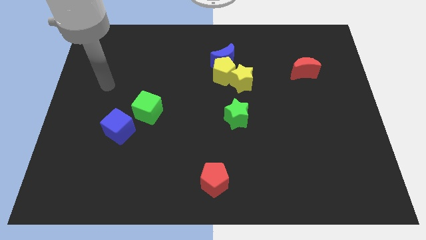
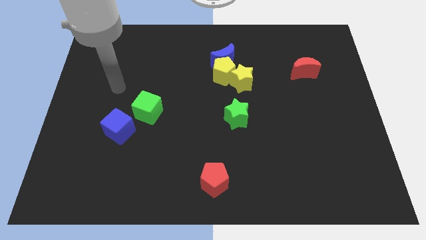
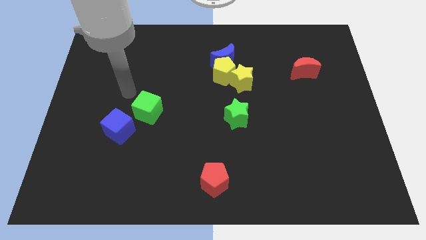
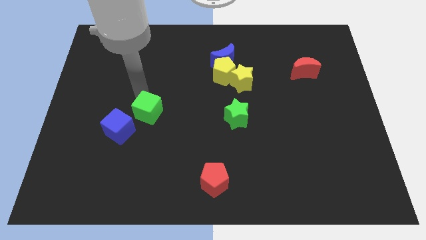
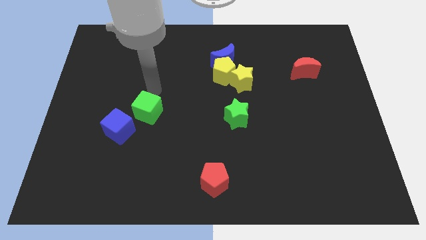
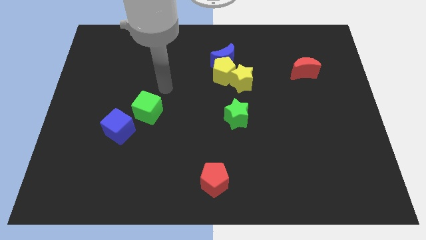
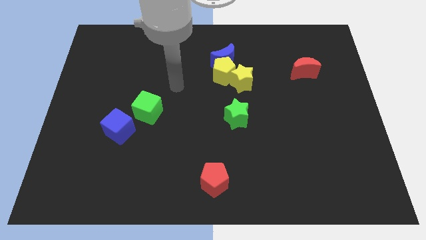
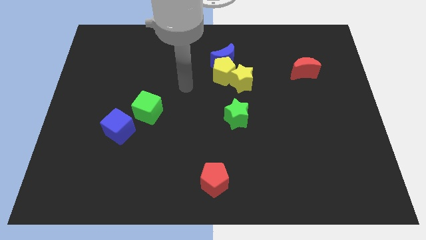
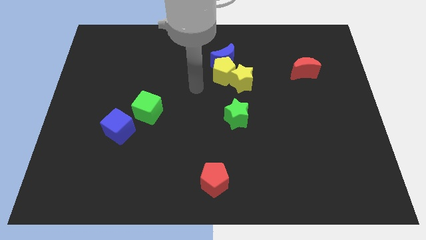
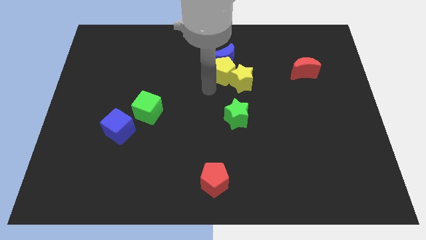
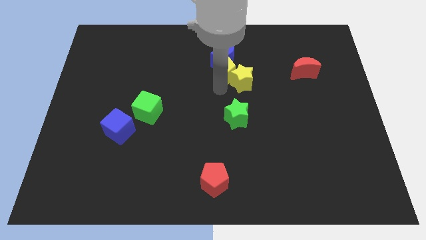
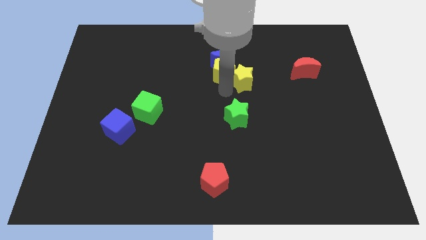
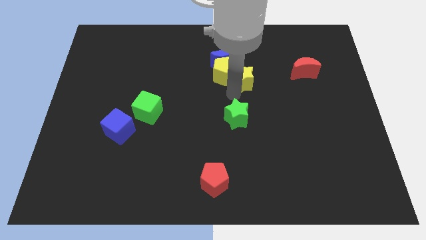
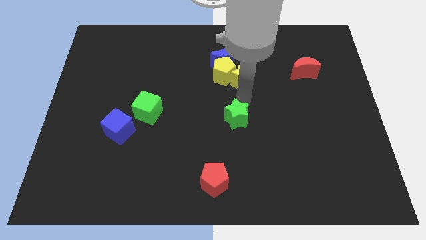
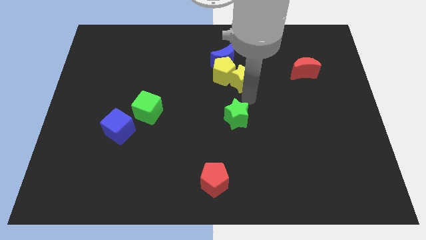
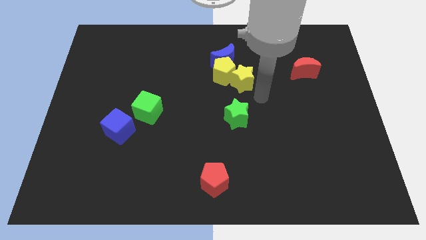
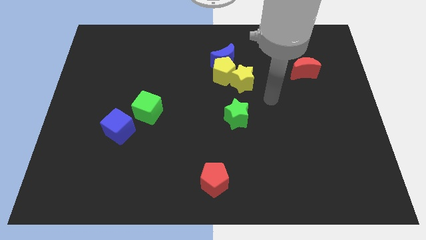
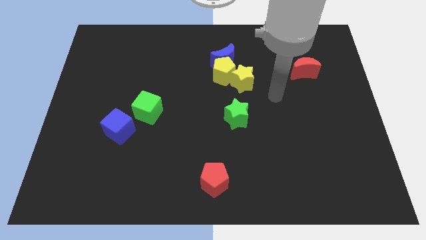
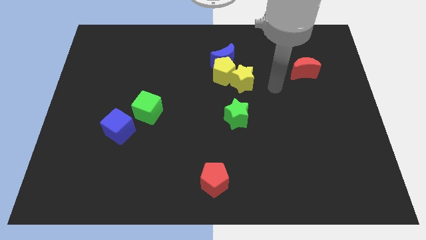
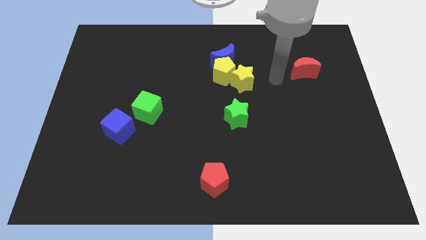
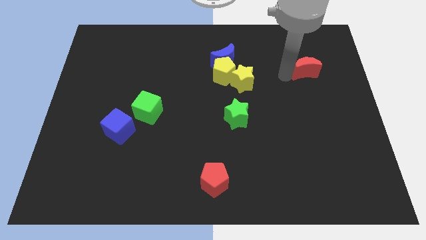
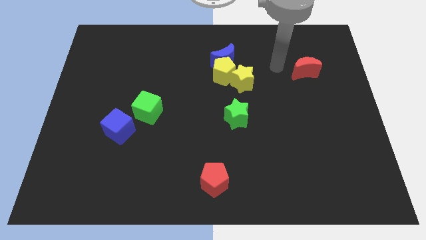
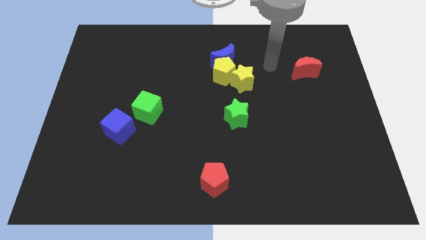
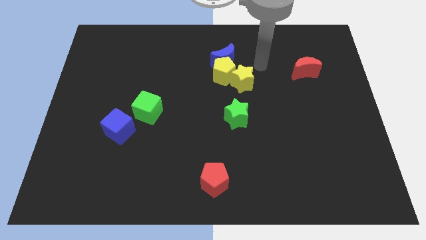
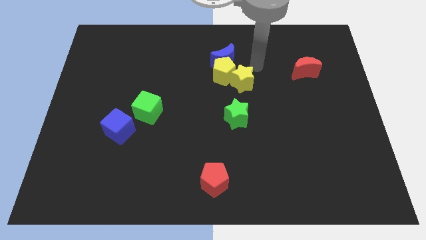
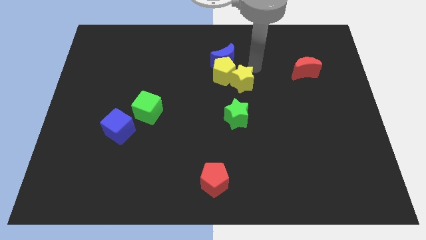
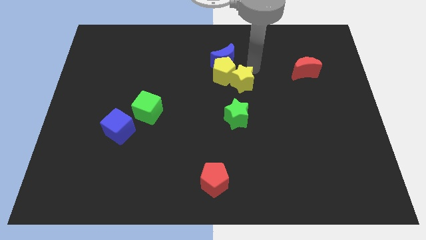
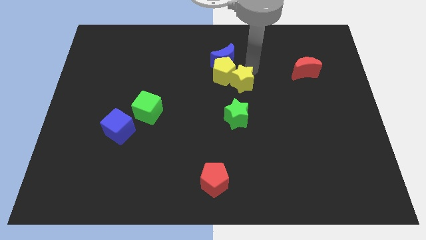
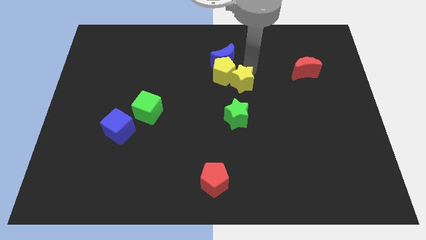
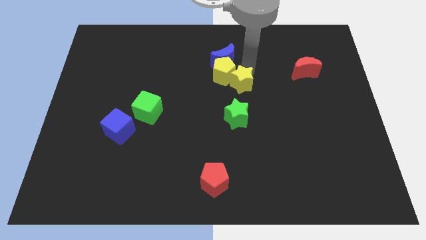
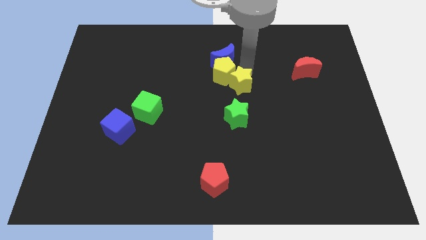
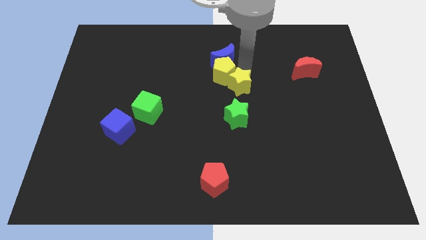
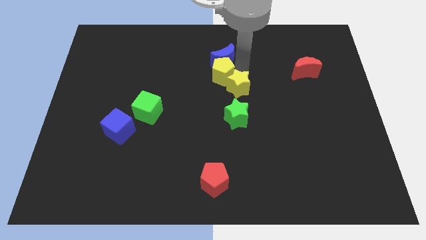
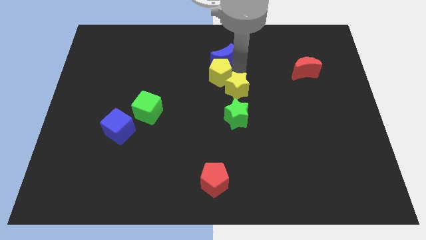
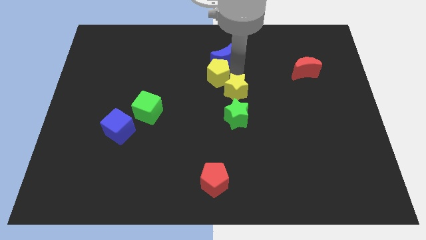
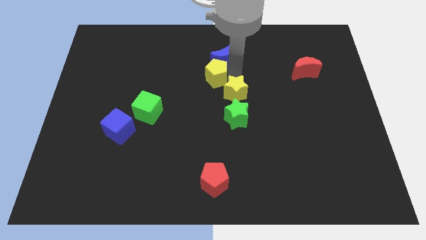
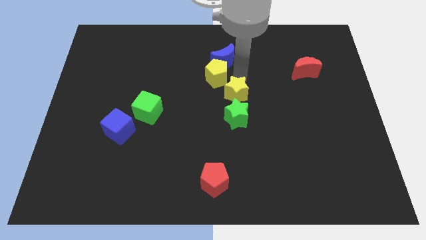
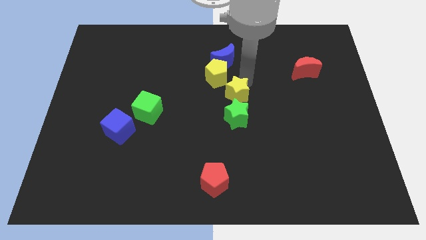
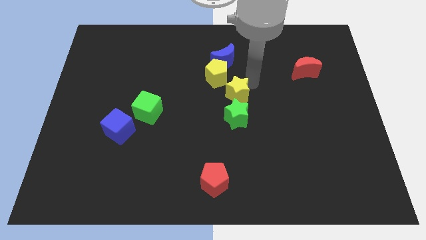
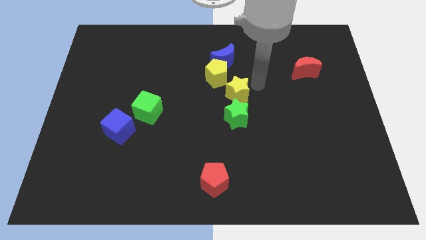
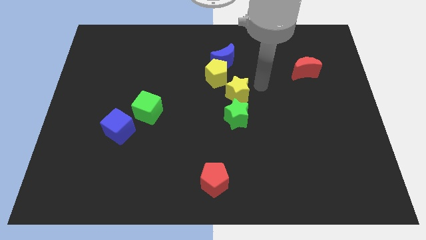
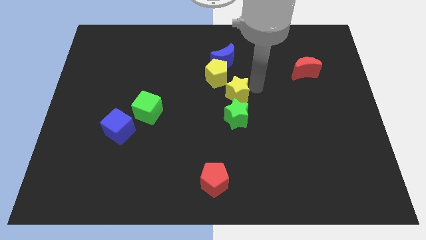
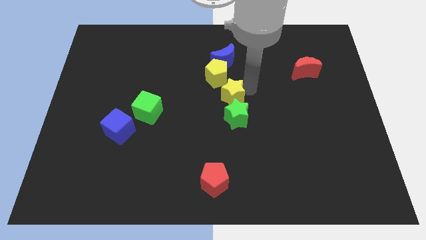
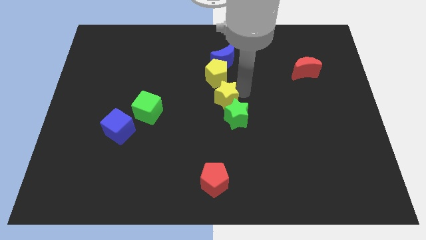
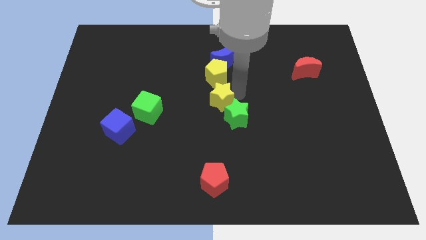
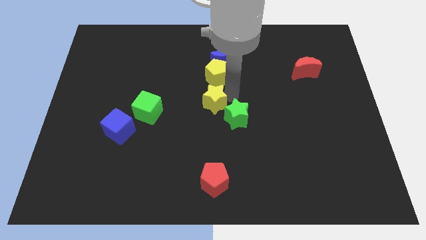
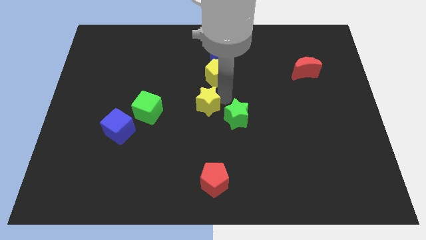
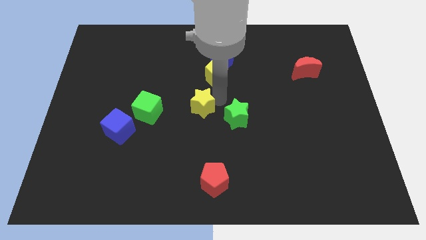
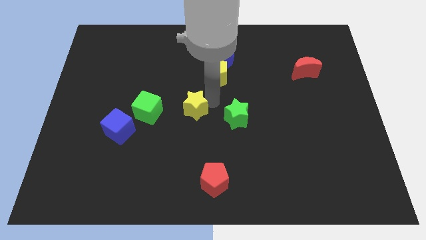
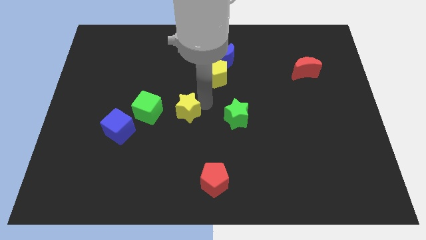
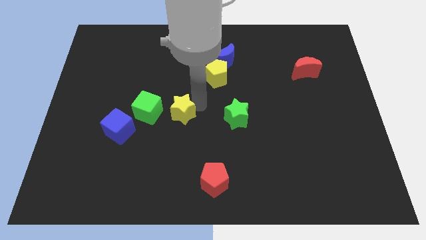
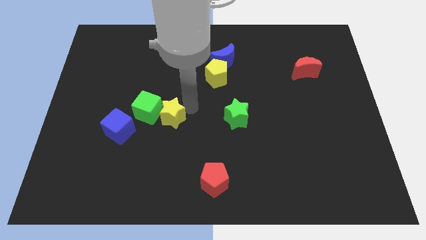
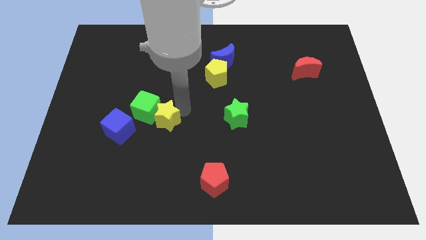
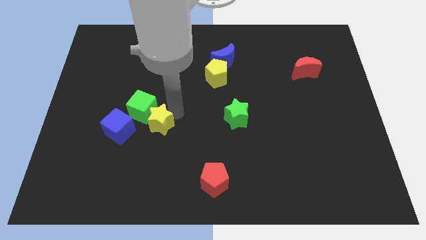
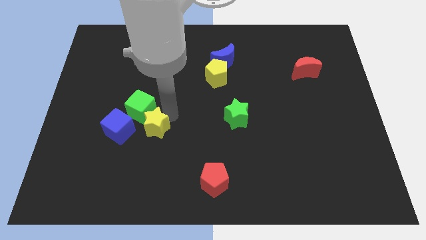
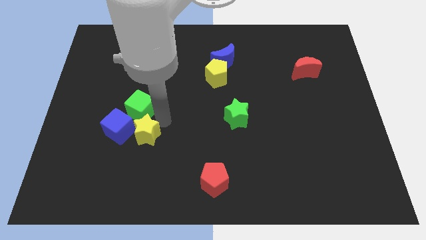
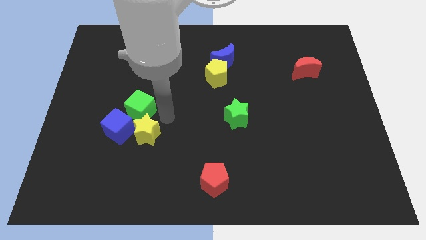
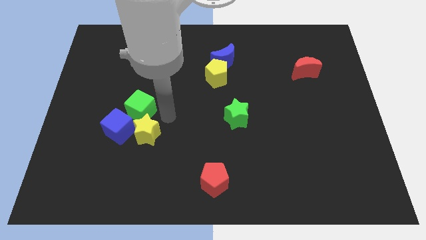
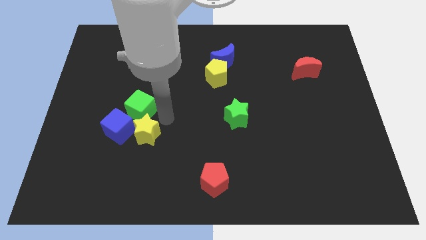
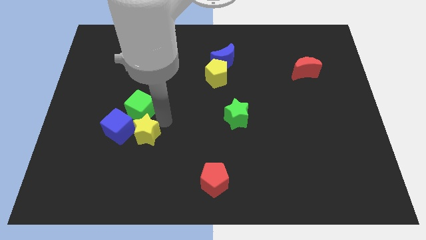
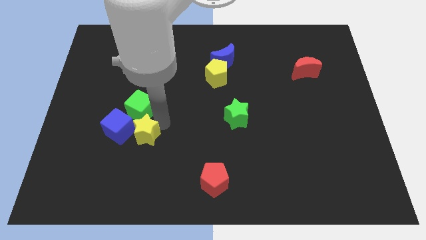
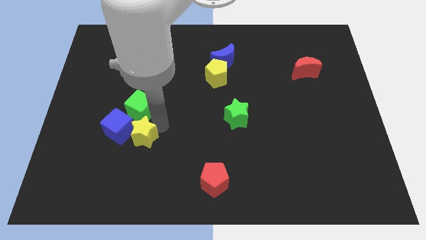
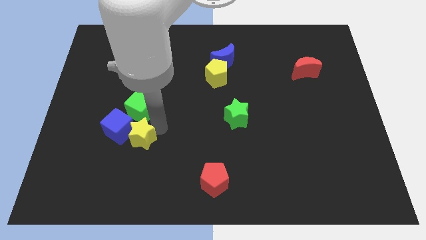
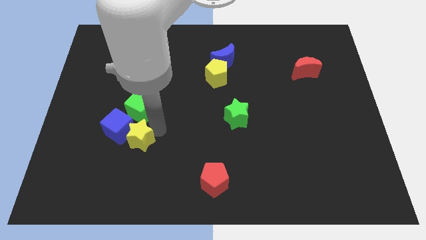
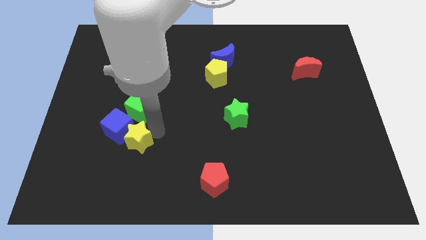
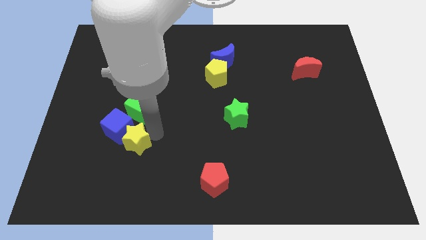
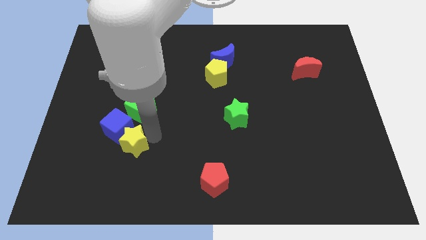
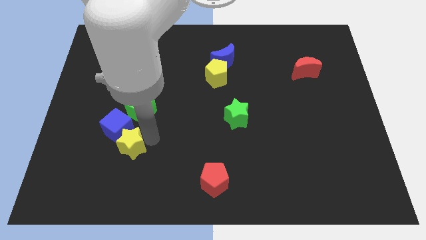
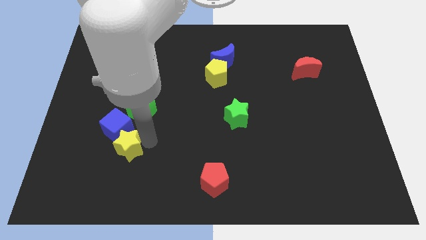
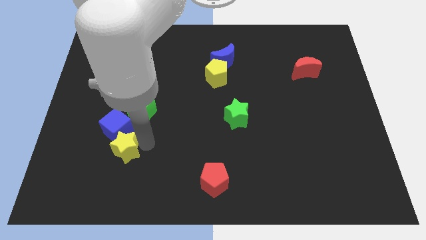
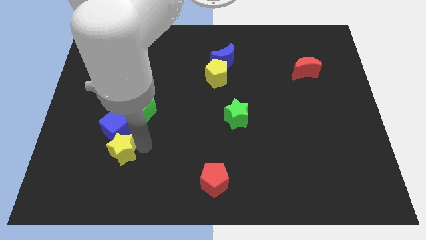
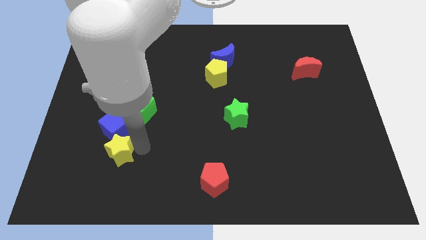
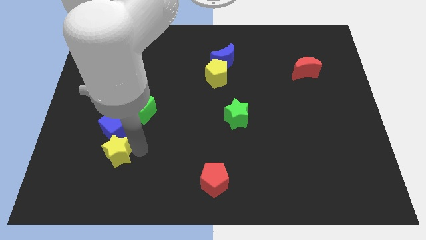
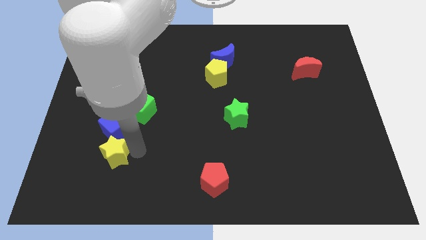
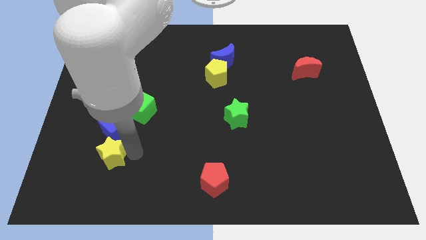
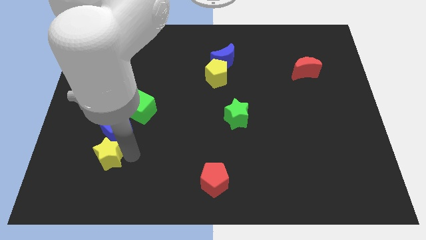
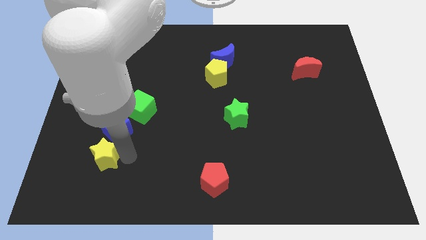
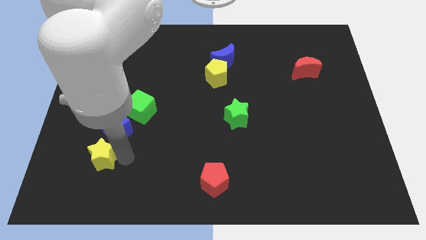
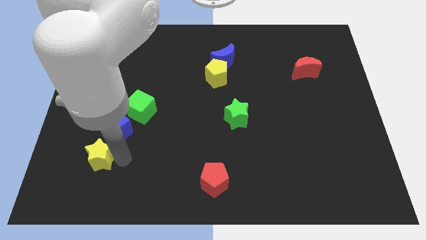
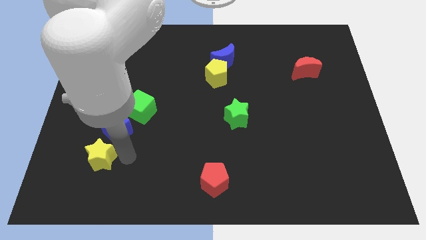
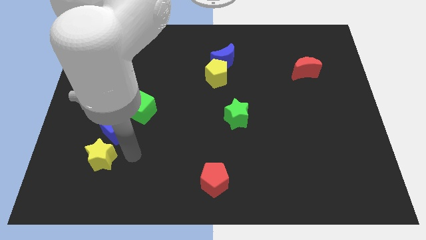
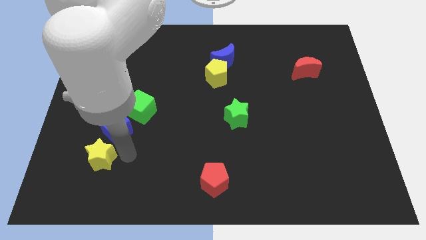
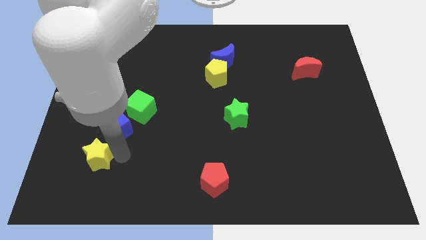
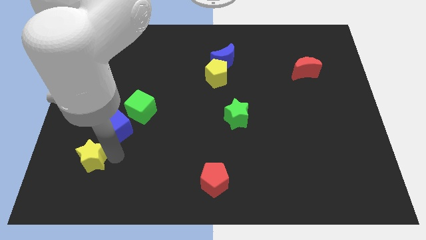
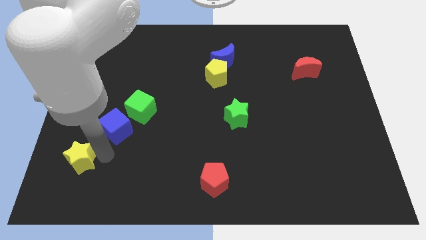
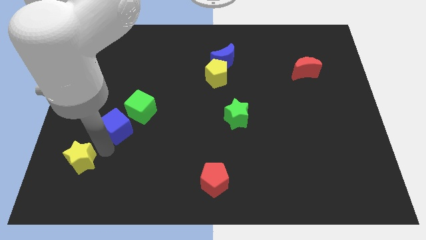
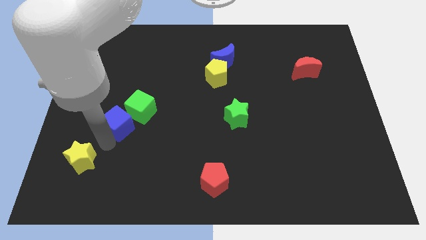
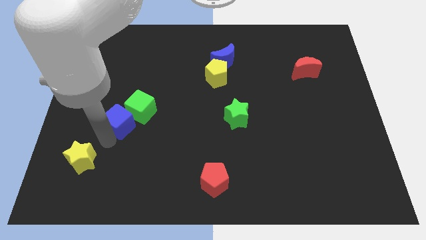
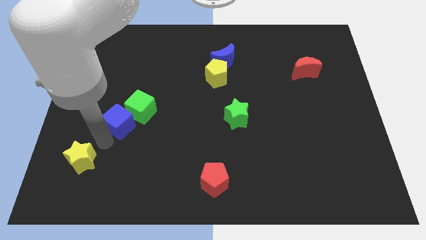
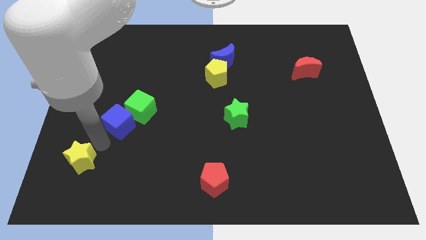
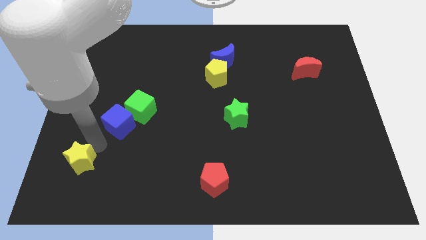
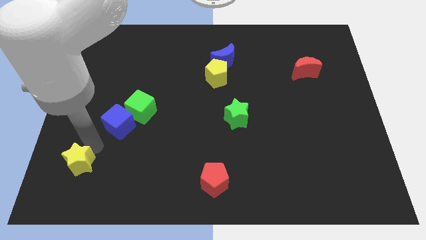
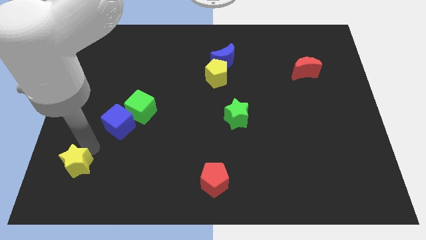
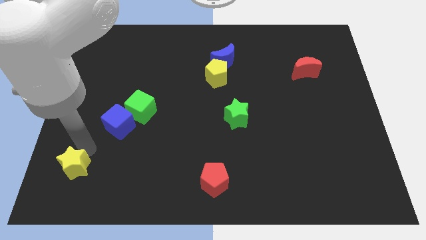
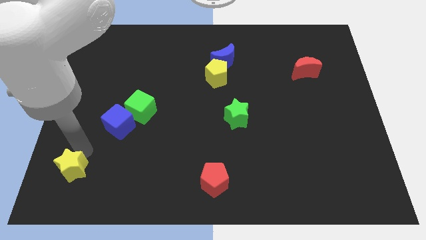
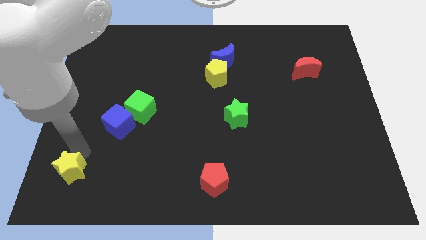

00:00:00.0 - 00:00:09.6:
put the yellow star to the lower left corner
